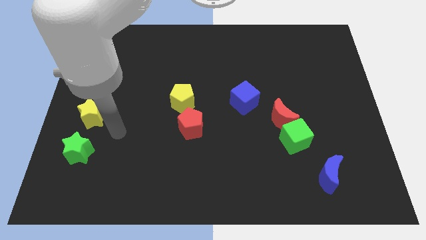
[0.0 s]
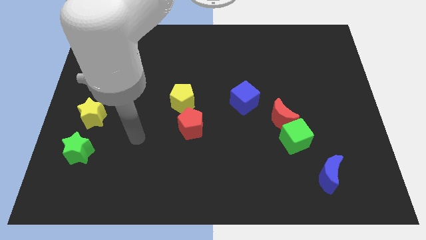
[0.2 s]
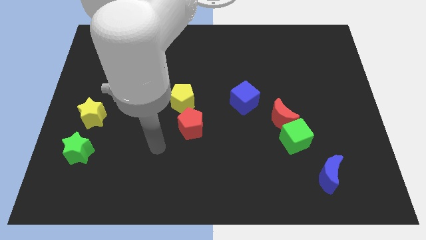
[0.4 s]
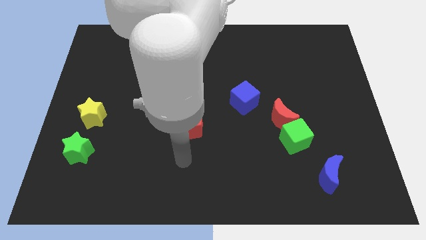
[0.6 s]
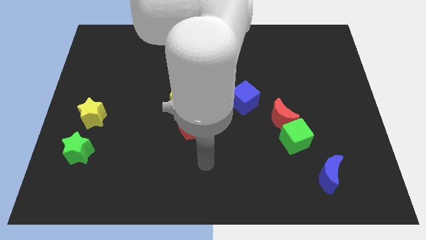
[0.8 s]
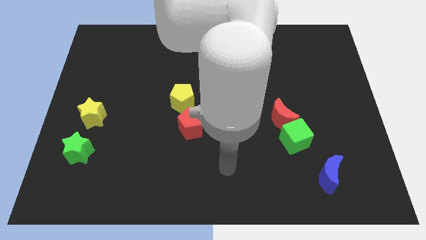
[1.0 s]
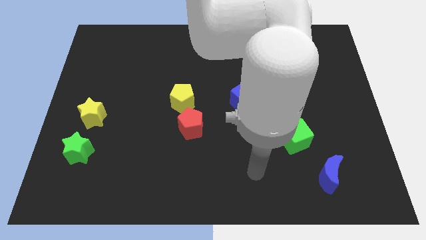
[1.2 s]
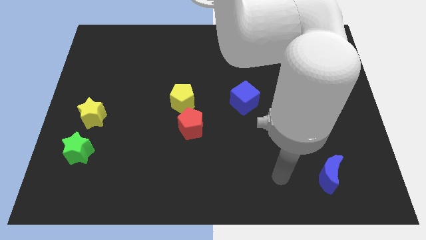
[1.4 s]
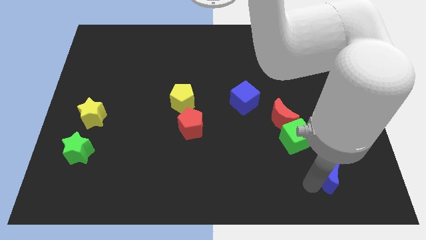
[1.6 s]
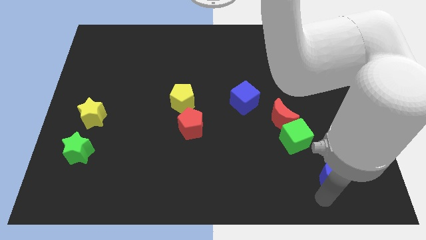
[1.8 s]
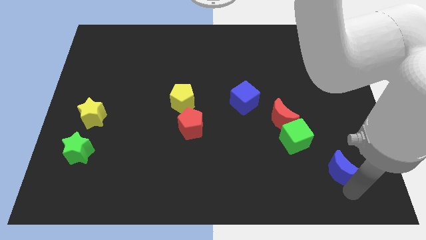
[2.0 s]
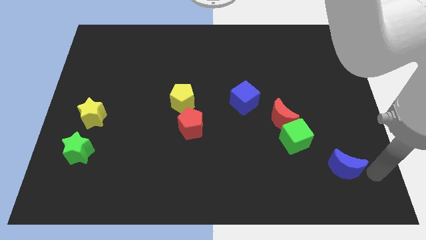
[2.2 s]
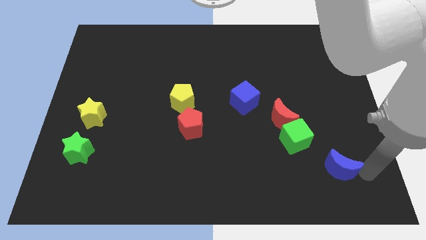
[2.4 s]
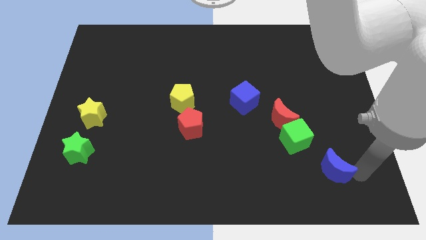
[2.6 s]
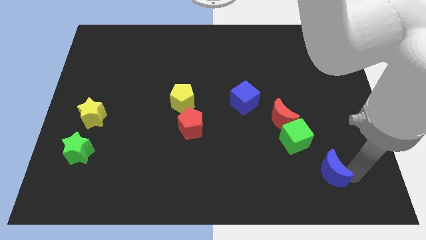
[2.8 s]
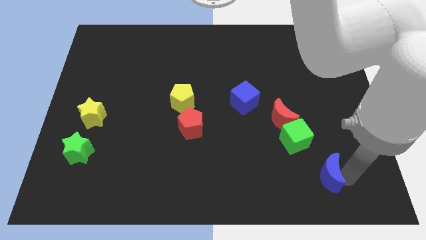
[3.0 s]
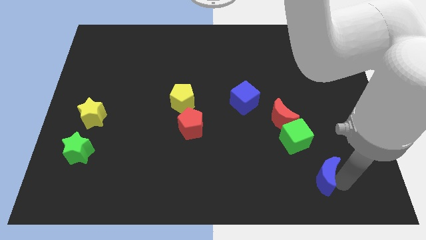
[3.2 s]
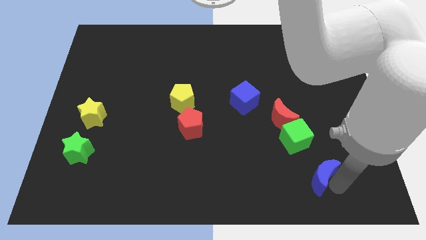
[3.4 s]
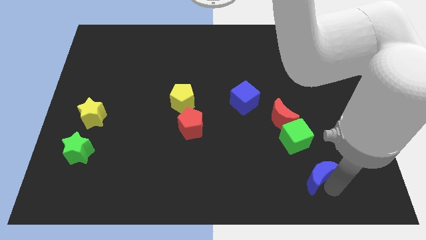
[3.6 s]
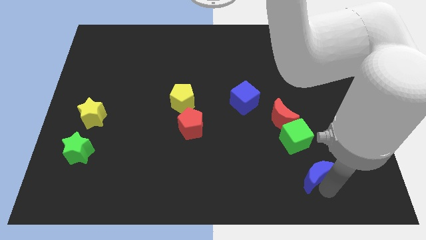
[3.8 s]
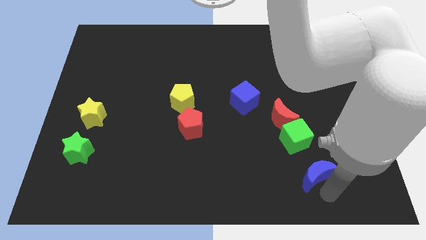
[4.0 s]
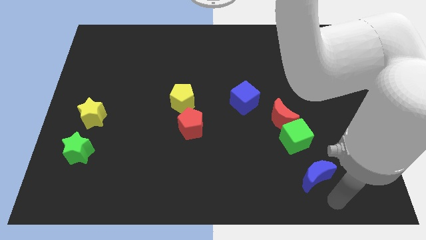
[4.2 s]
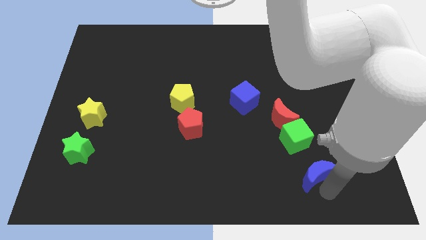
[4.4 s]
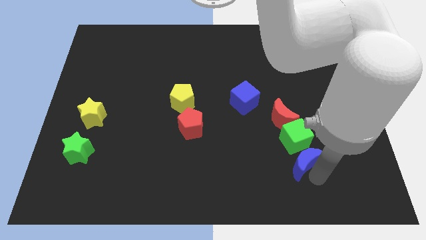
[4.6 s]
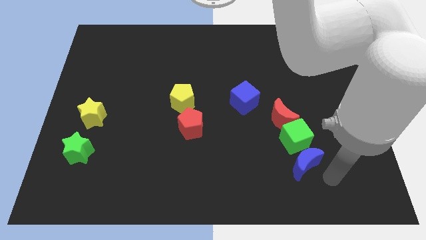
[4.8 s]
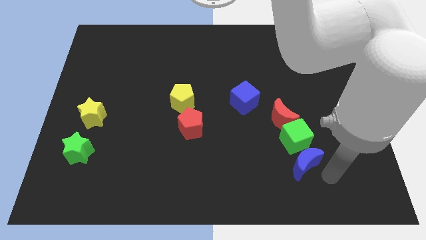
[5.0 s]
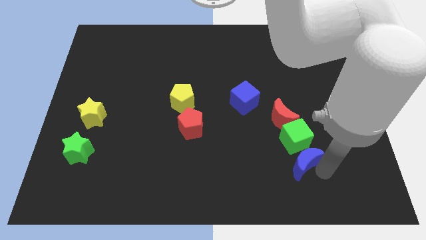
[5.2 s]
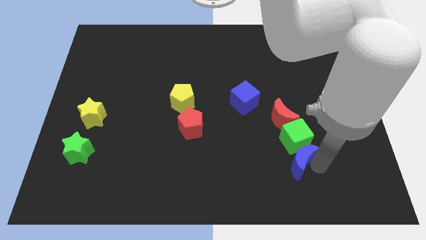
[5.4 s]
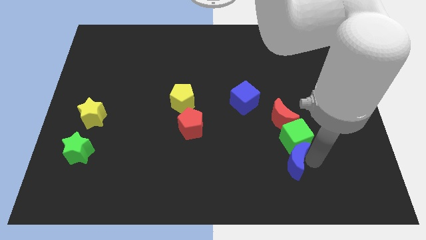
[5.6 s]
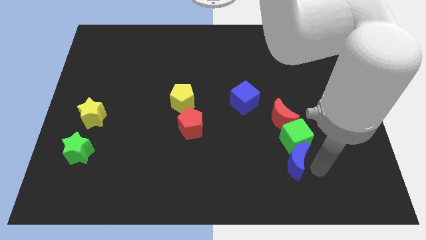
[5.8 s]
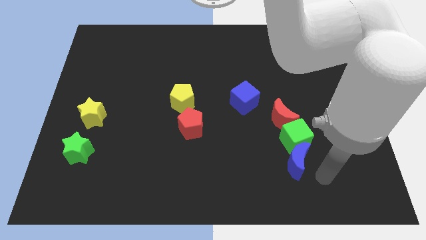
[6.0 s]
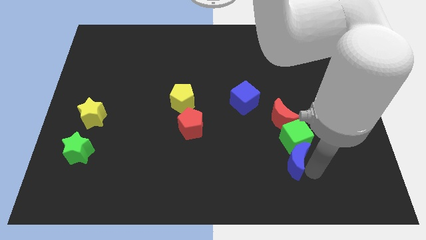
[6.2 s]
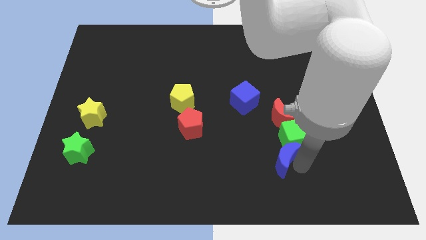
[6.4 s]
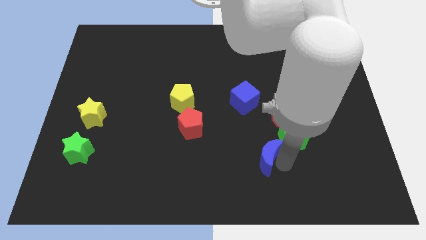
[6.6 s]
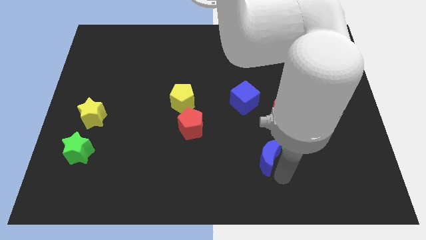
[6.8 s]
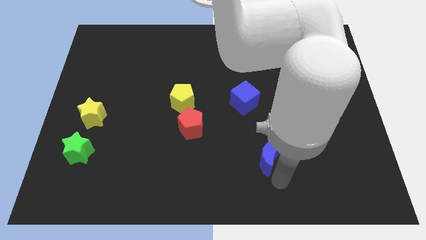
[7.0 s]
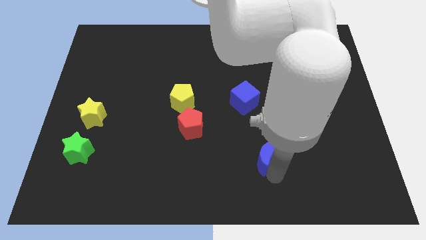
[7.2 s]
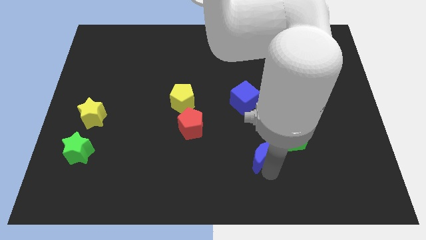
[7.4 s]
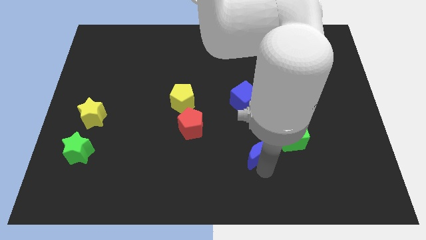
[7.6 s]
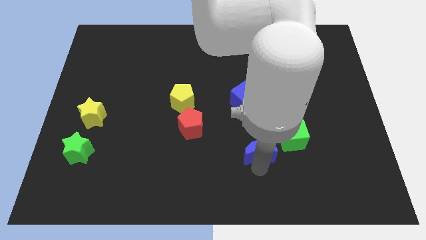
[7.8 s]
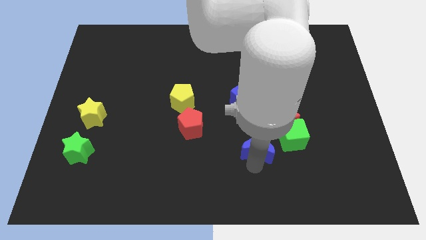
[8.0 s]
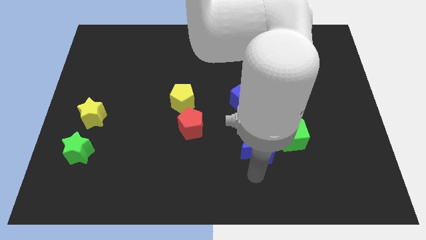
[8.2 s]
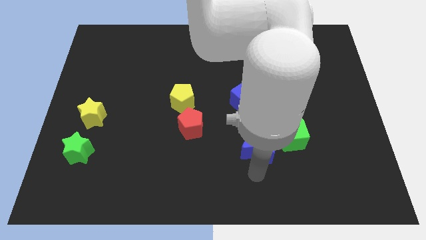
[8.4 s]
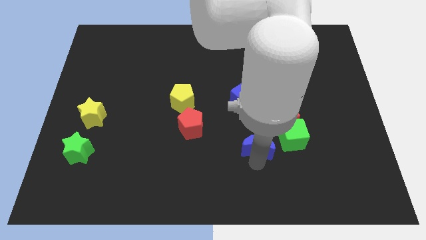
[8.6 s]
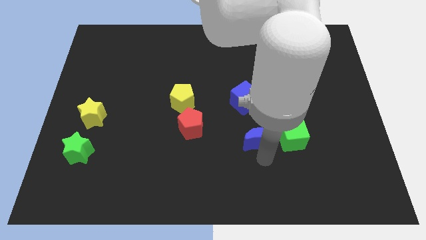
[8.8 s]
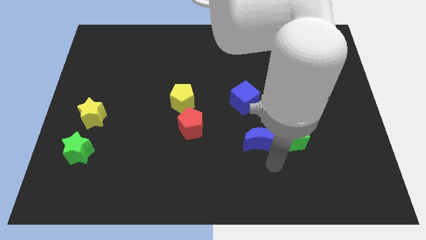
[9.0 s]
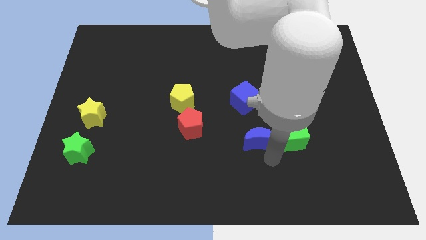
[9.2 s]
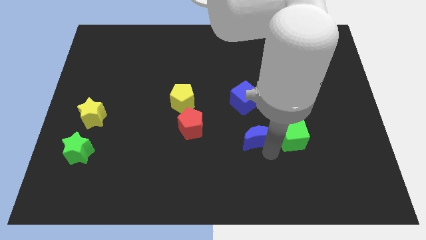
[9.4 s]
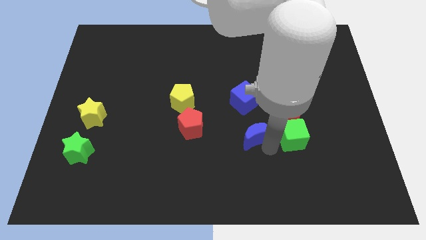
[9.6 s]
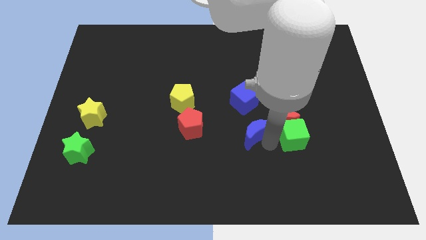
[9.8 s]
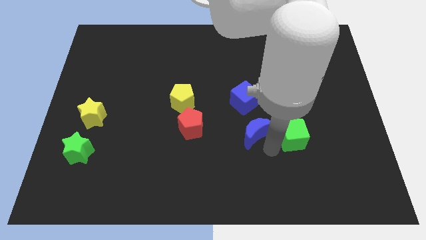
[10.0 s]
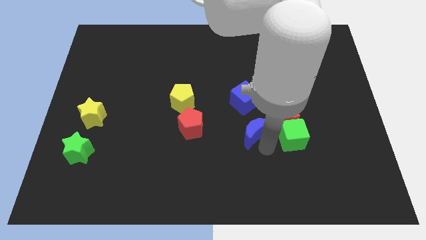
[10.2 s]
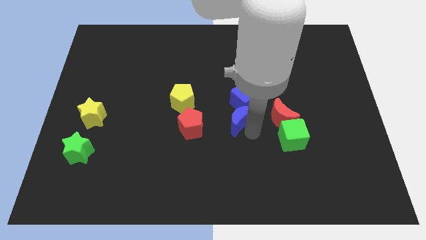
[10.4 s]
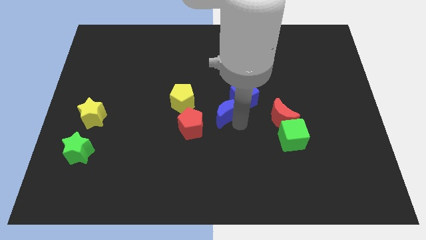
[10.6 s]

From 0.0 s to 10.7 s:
move the blue moon just right of the yellow pentagon

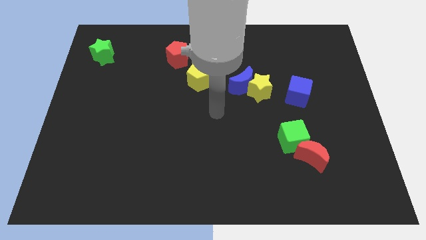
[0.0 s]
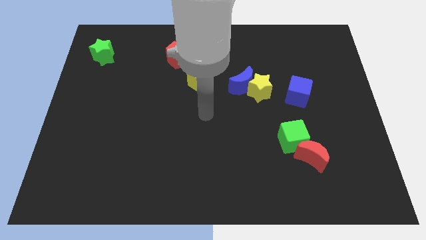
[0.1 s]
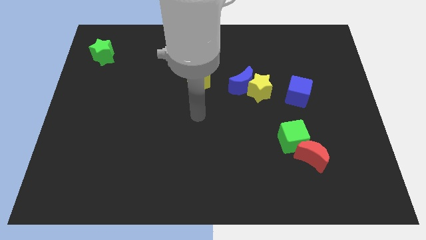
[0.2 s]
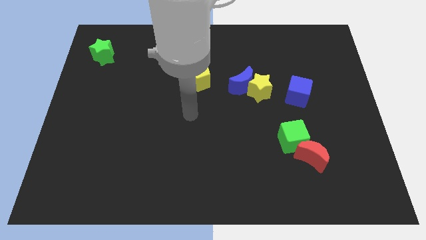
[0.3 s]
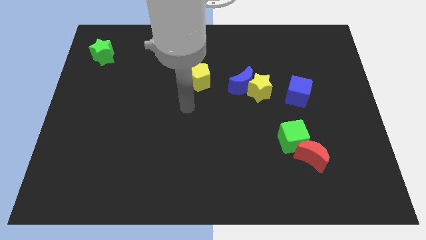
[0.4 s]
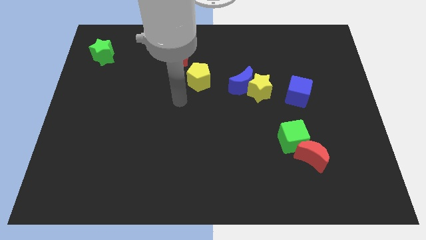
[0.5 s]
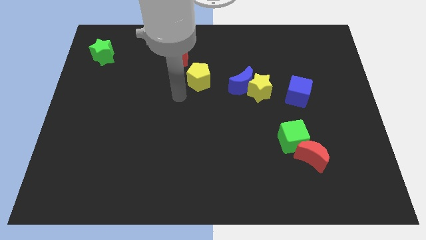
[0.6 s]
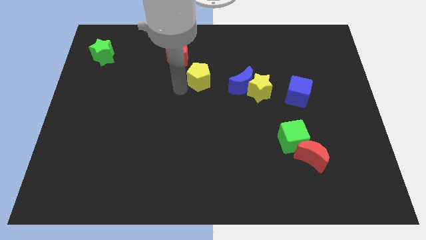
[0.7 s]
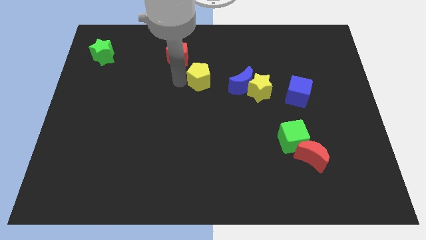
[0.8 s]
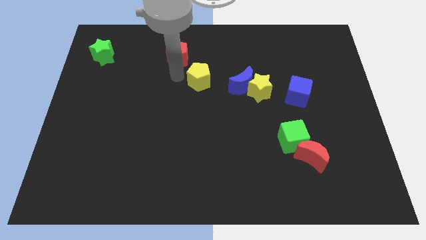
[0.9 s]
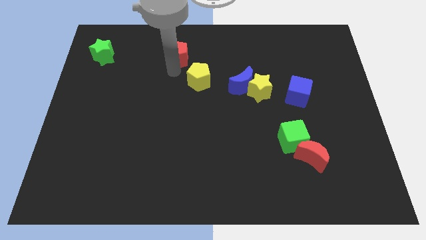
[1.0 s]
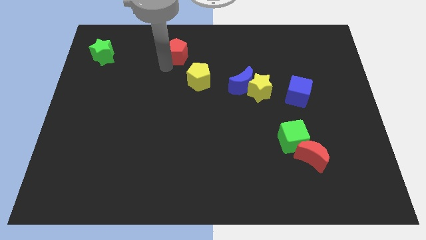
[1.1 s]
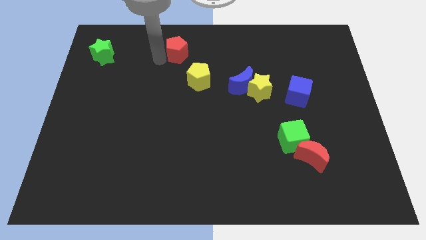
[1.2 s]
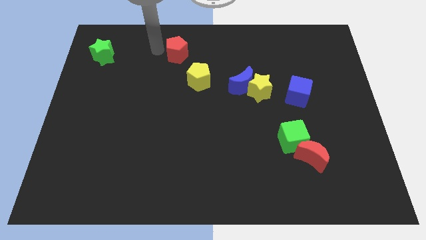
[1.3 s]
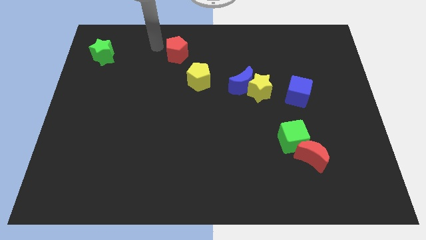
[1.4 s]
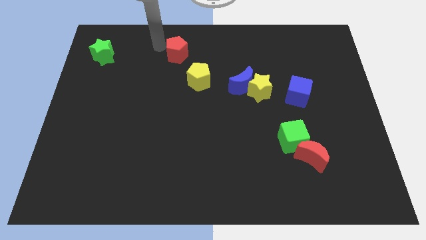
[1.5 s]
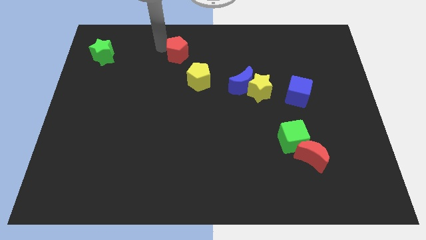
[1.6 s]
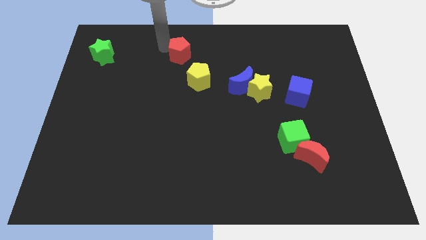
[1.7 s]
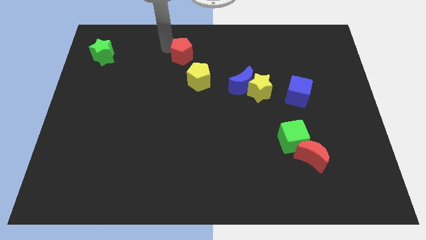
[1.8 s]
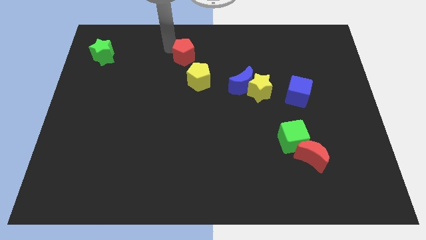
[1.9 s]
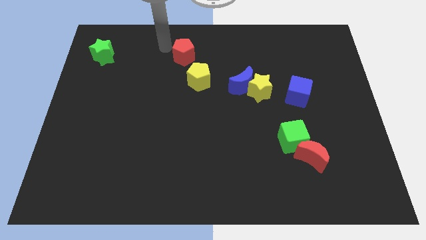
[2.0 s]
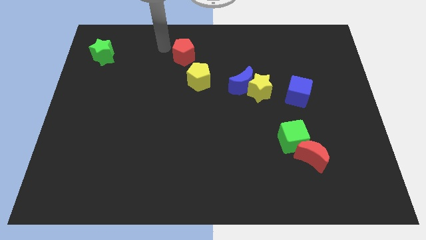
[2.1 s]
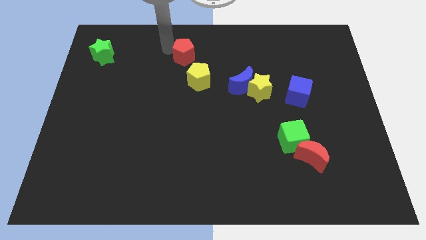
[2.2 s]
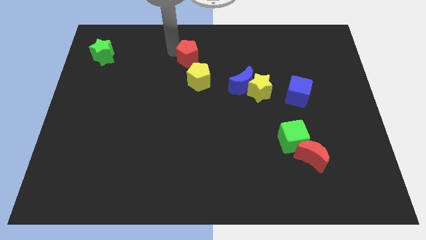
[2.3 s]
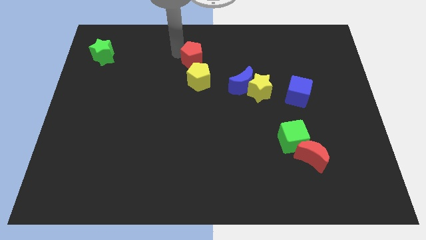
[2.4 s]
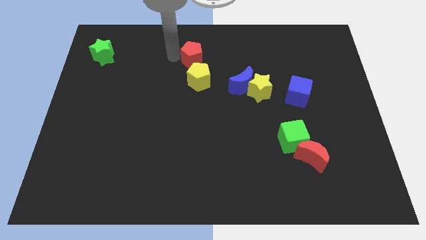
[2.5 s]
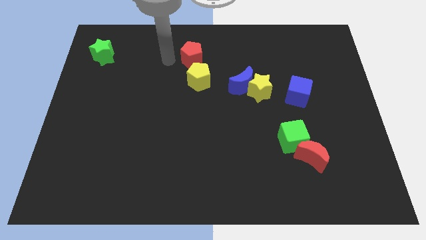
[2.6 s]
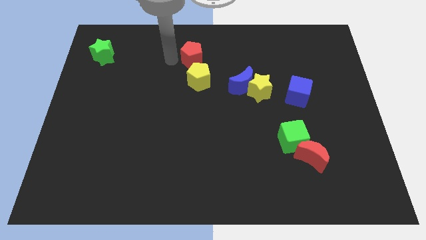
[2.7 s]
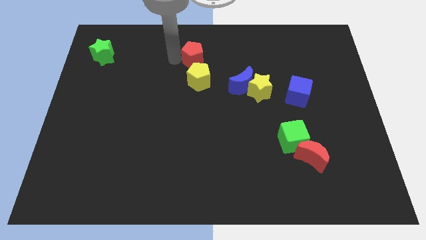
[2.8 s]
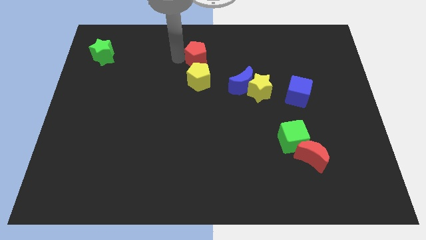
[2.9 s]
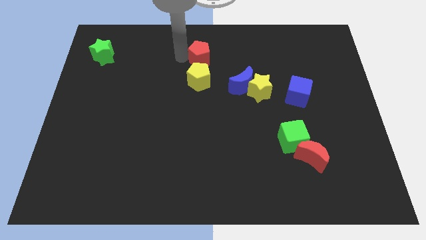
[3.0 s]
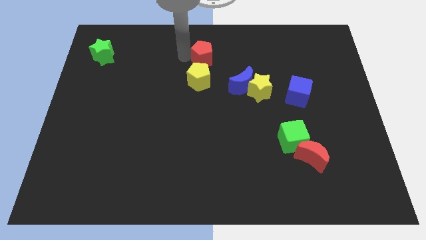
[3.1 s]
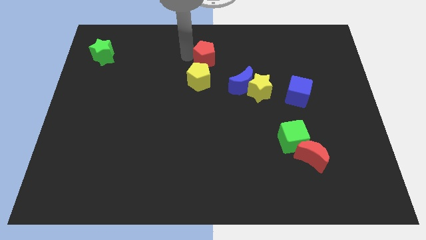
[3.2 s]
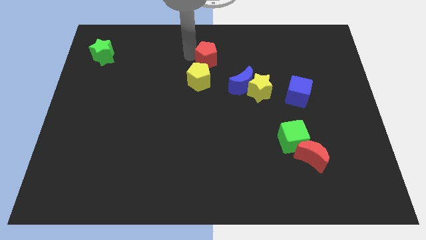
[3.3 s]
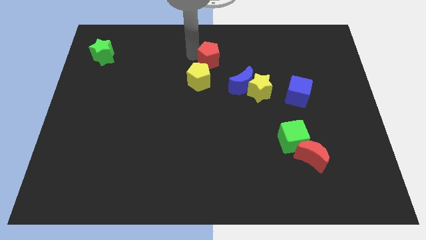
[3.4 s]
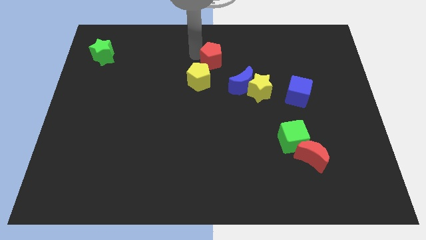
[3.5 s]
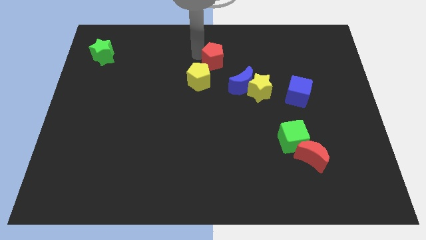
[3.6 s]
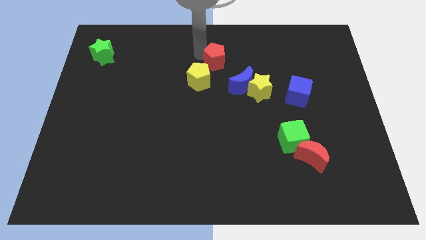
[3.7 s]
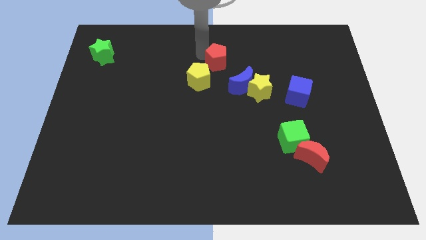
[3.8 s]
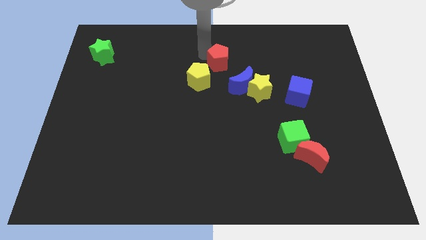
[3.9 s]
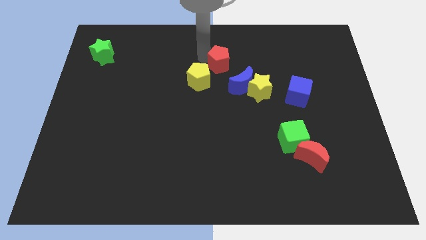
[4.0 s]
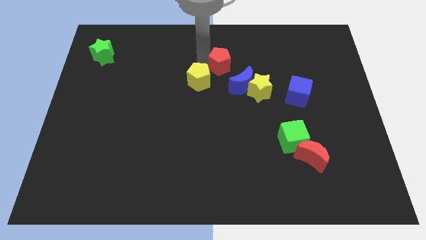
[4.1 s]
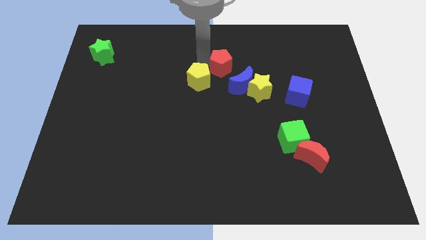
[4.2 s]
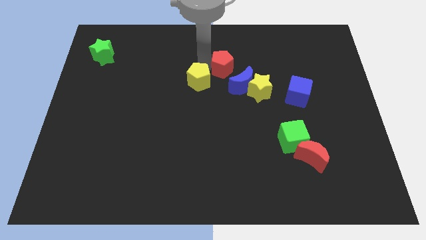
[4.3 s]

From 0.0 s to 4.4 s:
put the red pentagon above the blue moon
